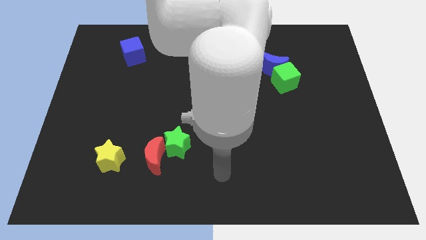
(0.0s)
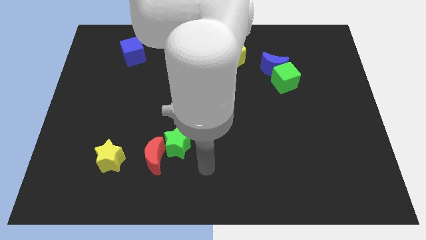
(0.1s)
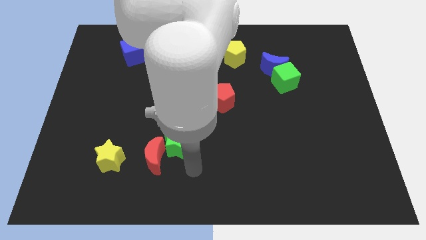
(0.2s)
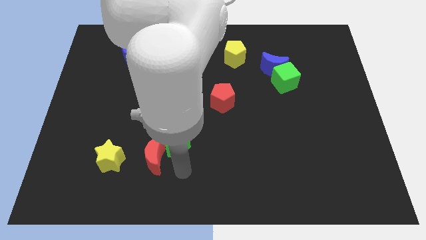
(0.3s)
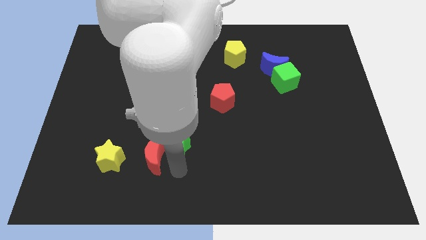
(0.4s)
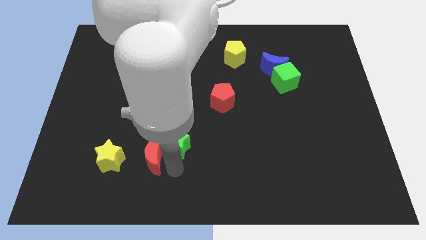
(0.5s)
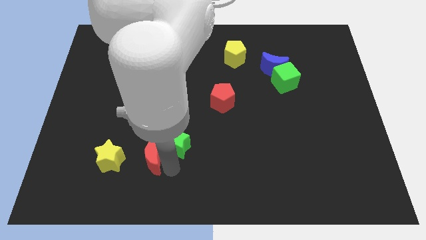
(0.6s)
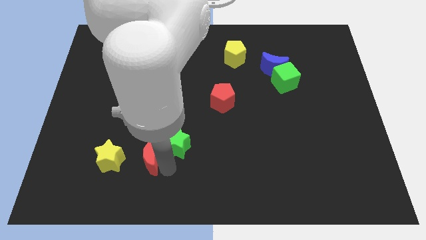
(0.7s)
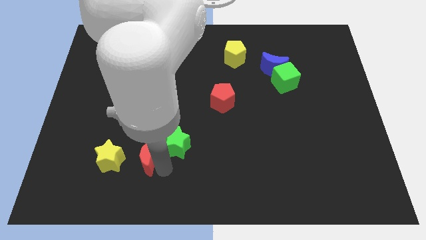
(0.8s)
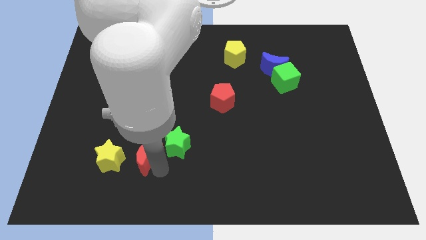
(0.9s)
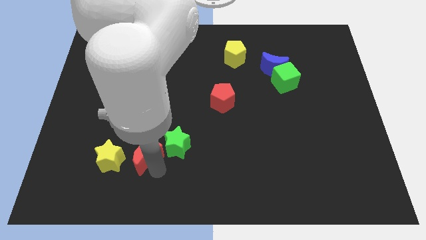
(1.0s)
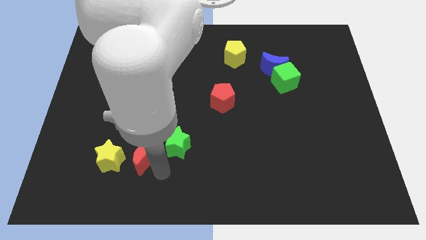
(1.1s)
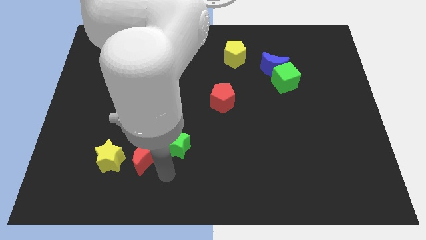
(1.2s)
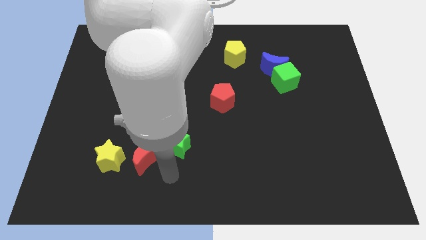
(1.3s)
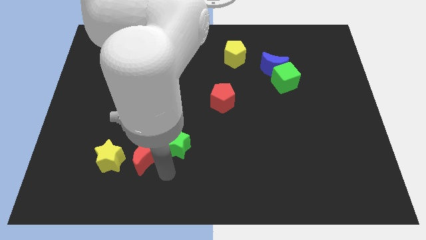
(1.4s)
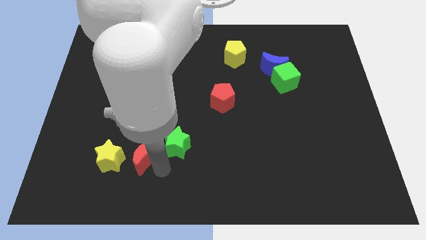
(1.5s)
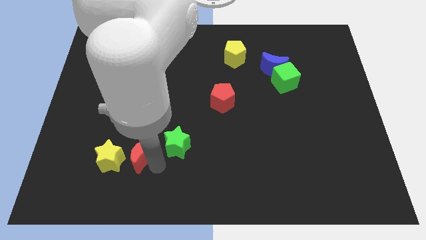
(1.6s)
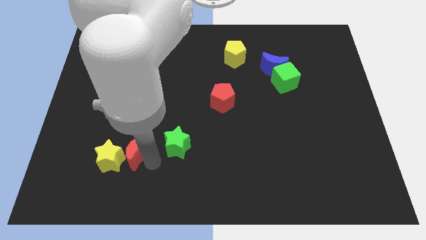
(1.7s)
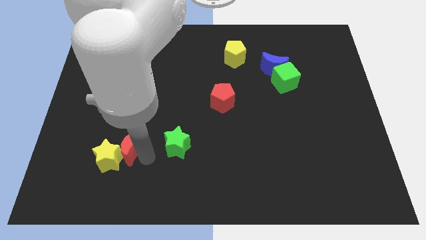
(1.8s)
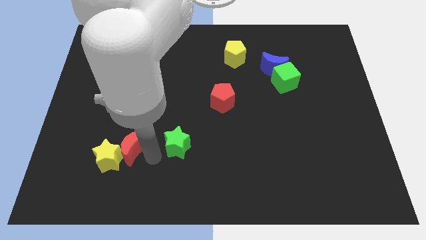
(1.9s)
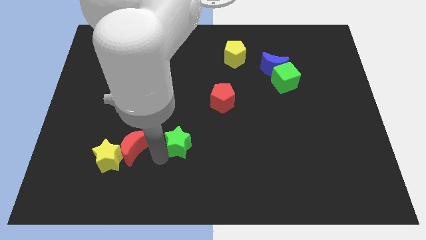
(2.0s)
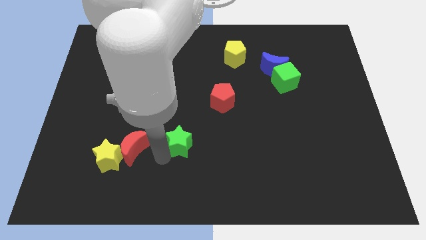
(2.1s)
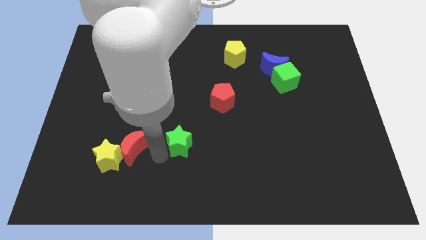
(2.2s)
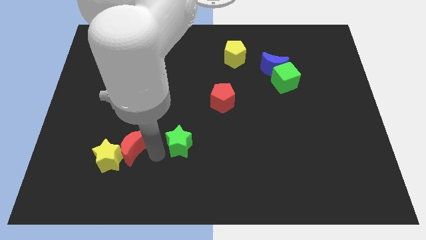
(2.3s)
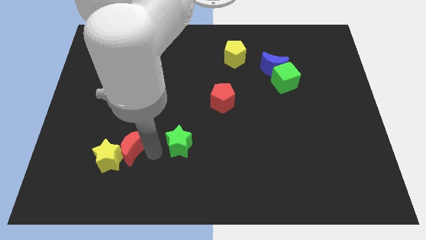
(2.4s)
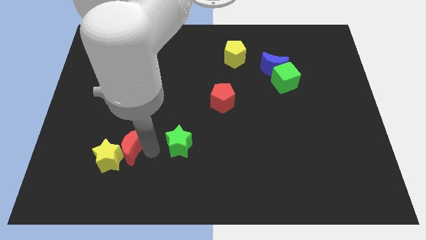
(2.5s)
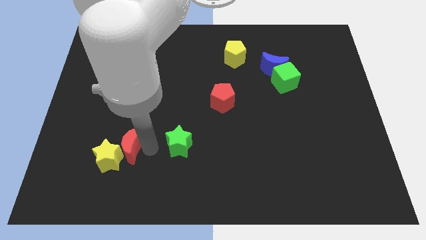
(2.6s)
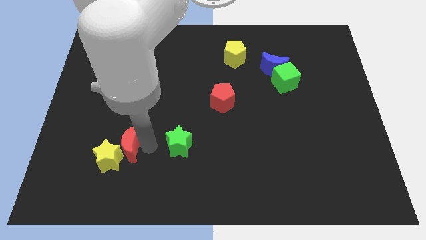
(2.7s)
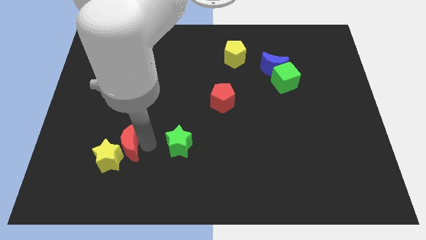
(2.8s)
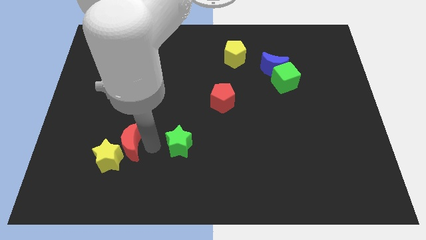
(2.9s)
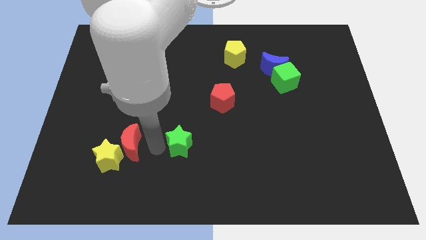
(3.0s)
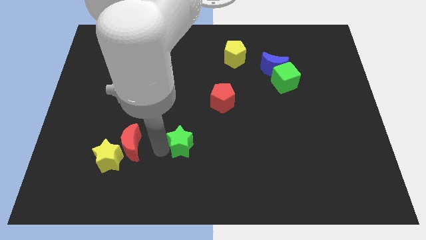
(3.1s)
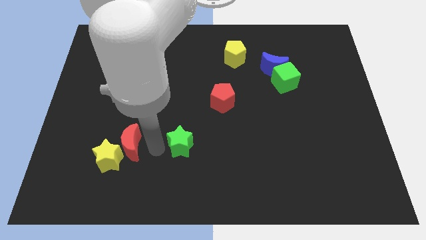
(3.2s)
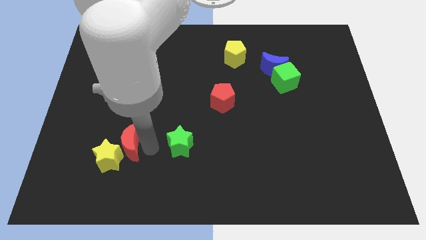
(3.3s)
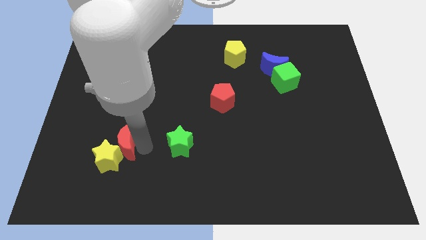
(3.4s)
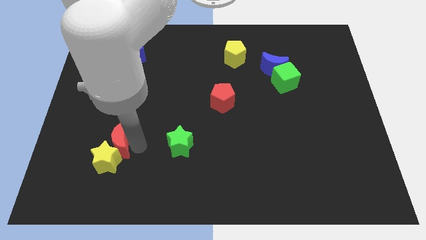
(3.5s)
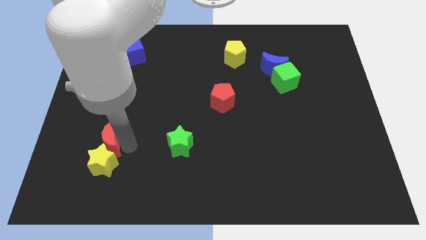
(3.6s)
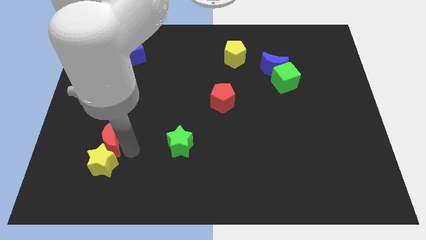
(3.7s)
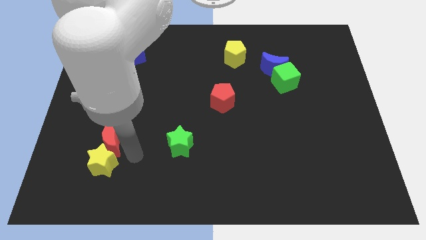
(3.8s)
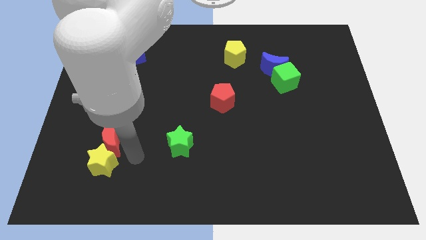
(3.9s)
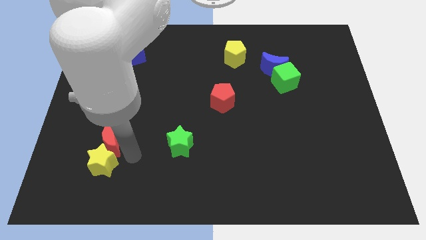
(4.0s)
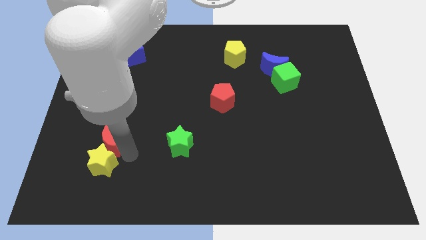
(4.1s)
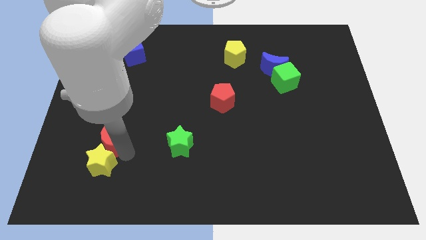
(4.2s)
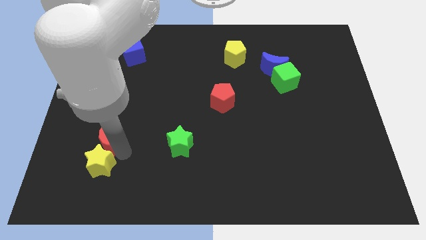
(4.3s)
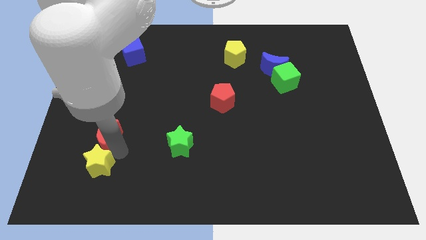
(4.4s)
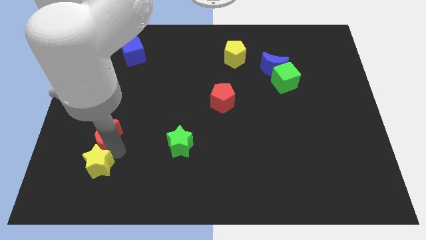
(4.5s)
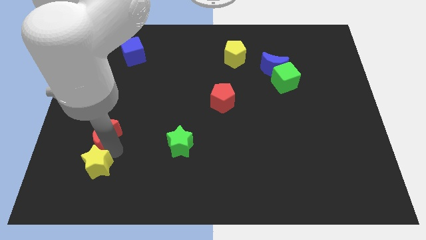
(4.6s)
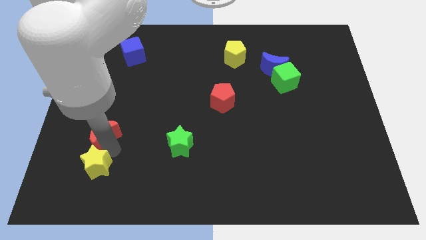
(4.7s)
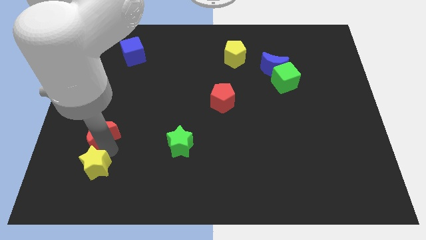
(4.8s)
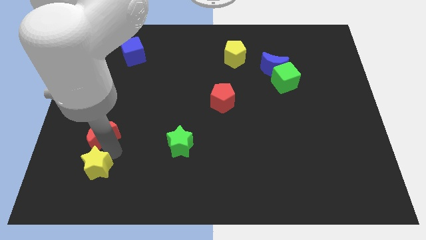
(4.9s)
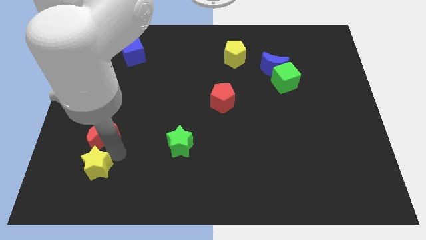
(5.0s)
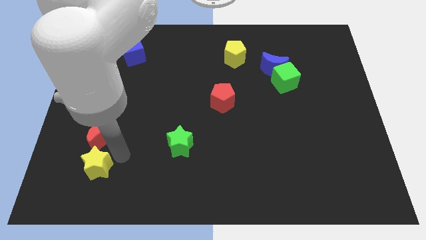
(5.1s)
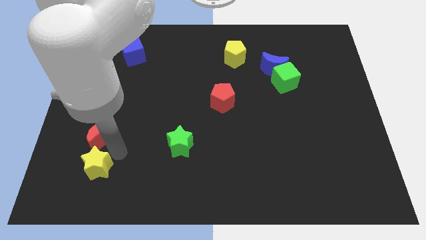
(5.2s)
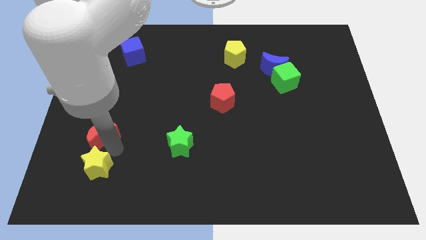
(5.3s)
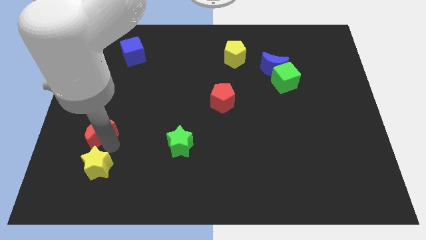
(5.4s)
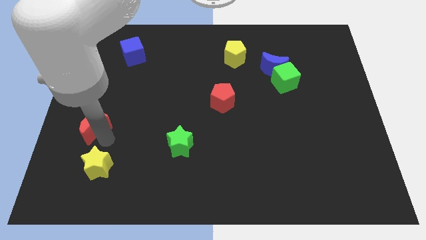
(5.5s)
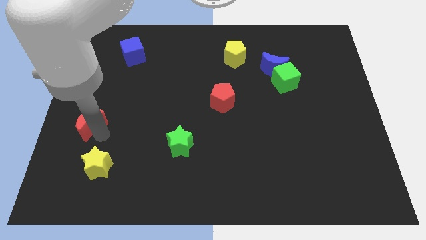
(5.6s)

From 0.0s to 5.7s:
slide the red moon to the center left

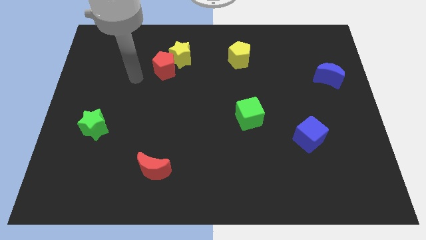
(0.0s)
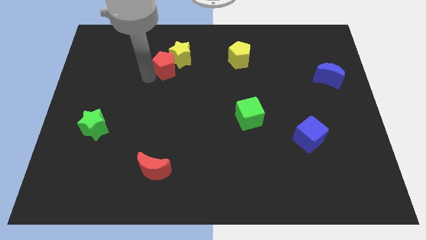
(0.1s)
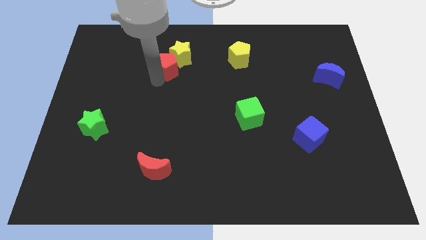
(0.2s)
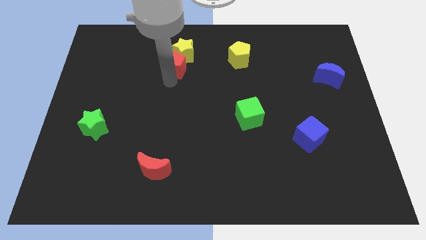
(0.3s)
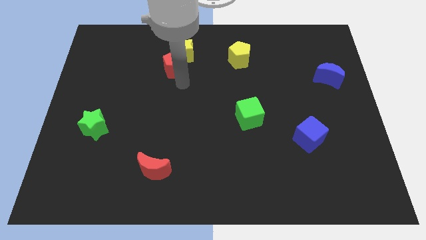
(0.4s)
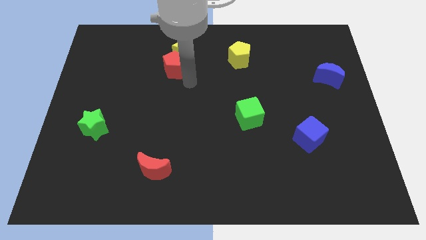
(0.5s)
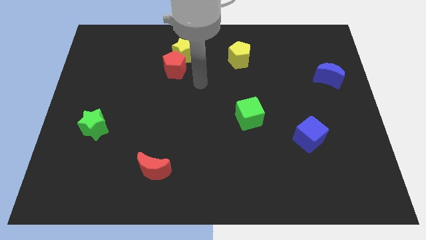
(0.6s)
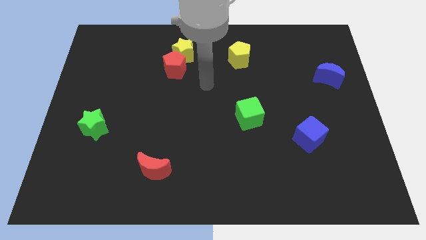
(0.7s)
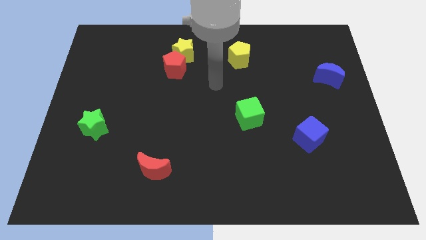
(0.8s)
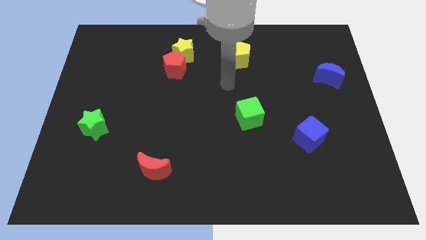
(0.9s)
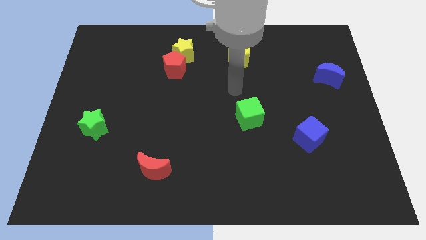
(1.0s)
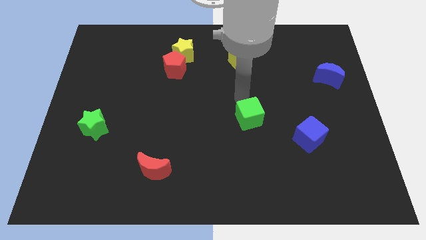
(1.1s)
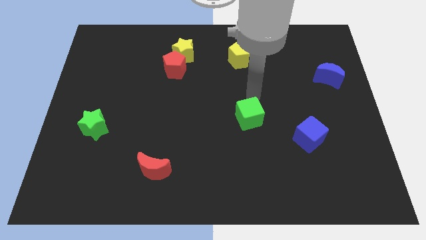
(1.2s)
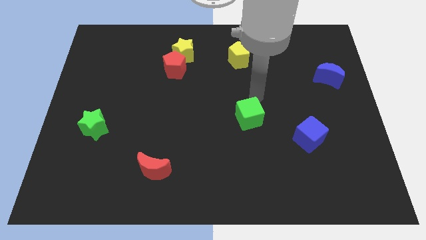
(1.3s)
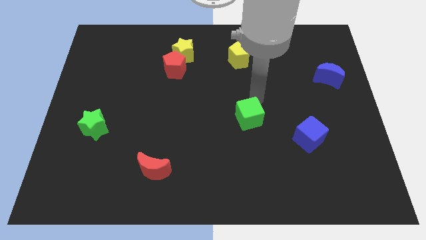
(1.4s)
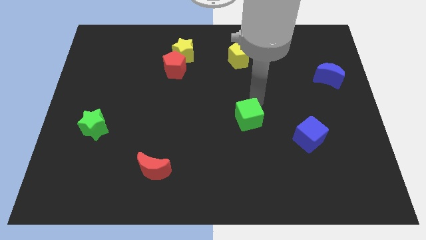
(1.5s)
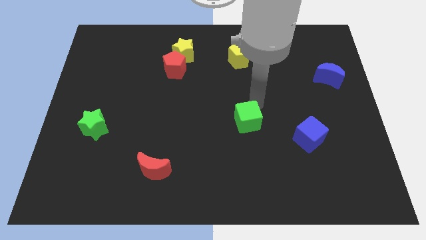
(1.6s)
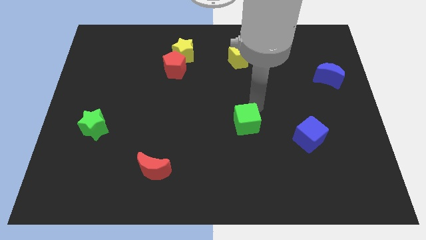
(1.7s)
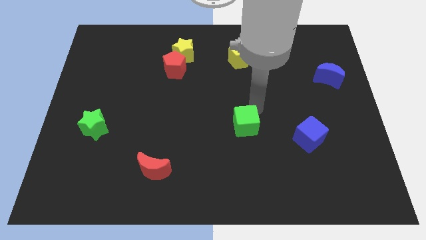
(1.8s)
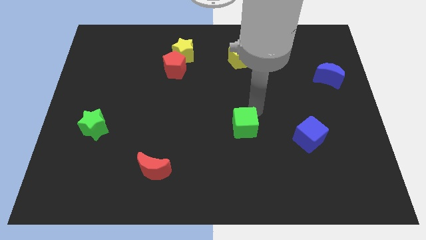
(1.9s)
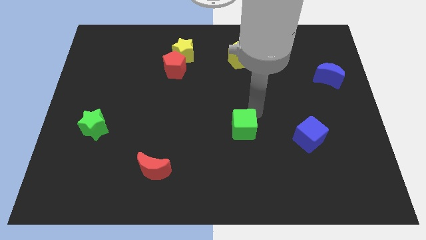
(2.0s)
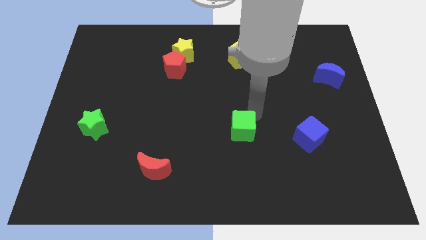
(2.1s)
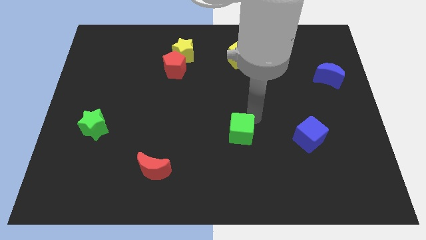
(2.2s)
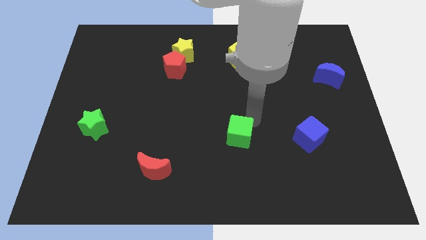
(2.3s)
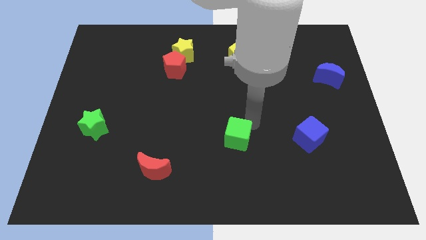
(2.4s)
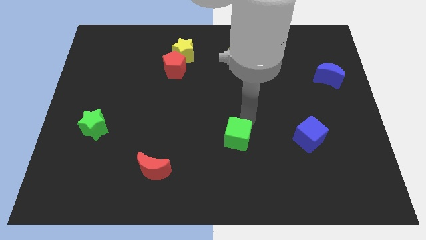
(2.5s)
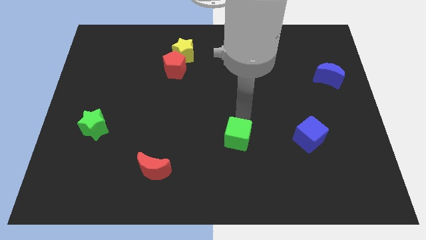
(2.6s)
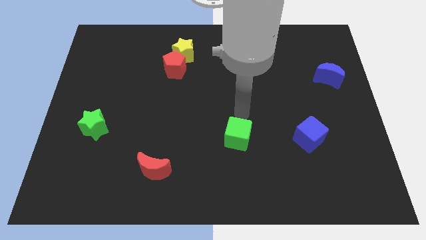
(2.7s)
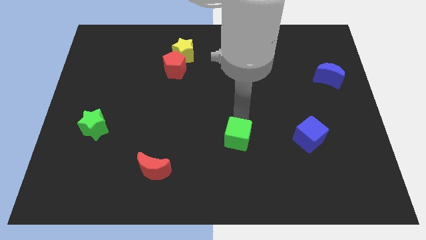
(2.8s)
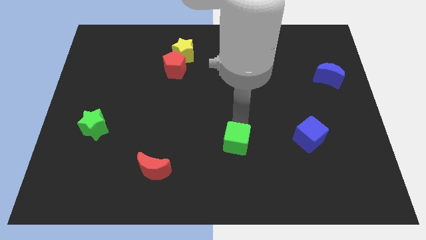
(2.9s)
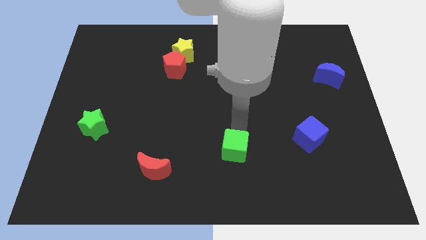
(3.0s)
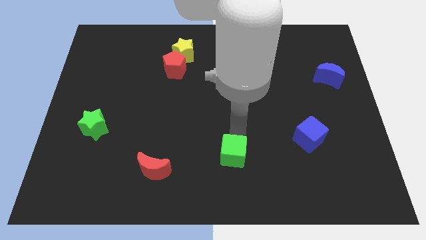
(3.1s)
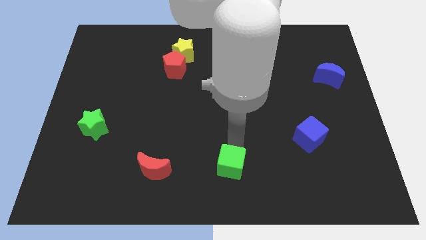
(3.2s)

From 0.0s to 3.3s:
slide the green cube to the bottom side
